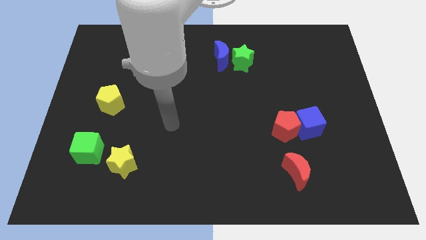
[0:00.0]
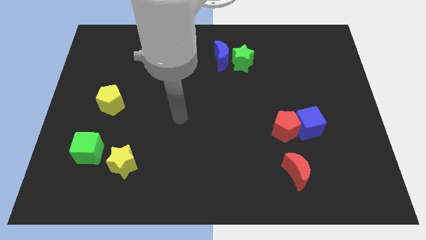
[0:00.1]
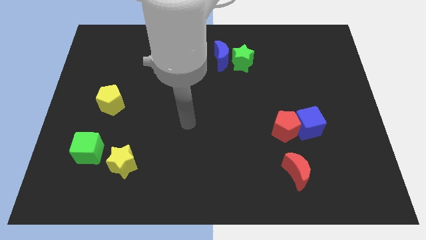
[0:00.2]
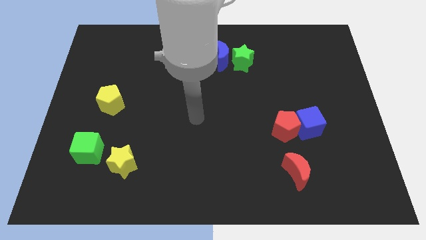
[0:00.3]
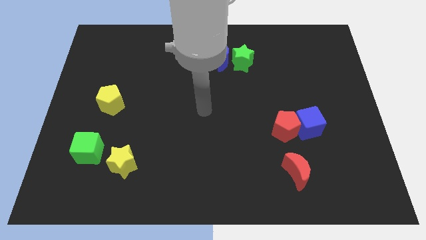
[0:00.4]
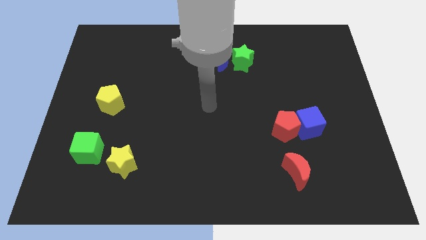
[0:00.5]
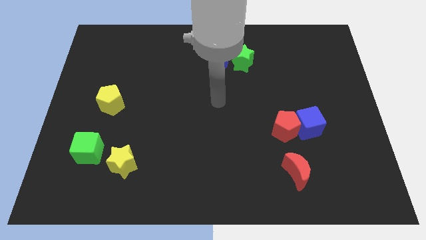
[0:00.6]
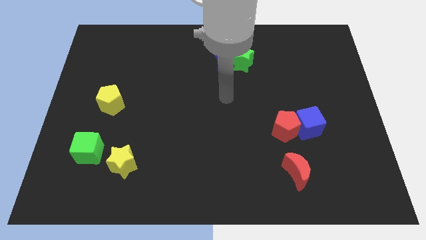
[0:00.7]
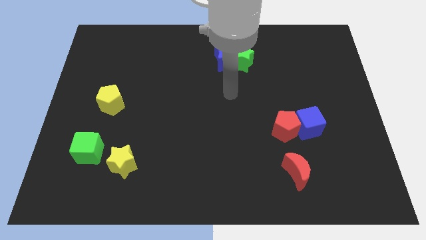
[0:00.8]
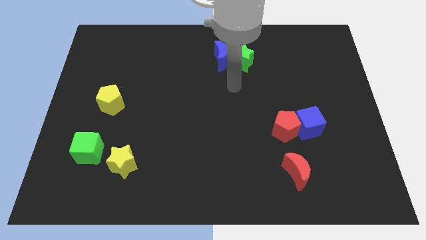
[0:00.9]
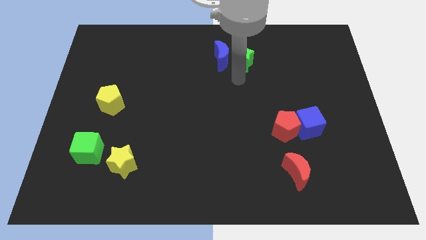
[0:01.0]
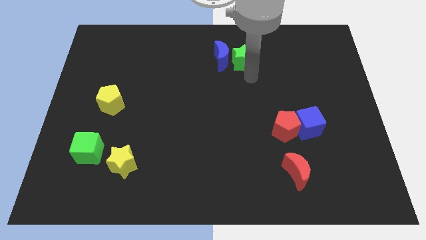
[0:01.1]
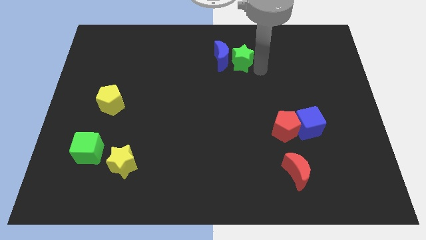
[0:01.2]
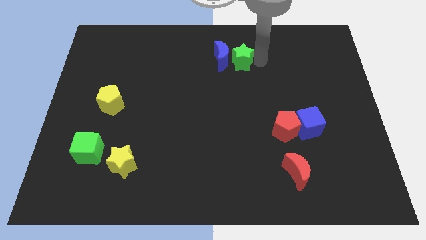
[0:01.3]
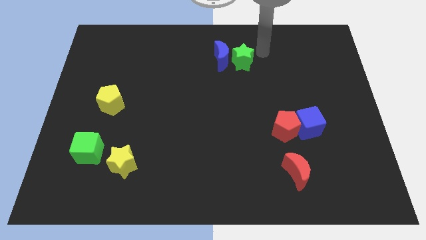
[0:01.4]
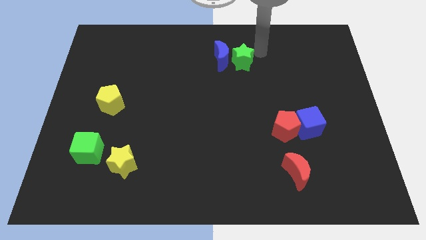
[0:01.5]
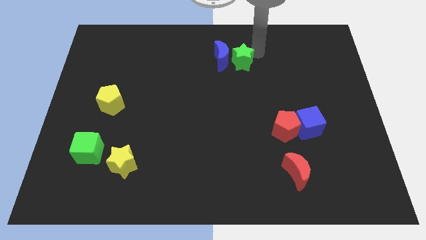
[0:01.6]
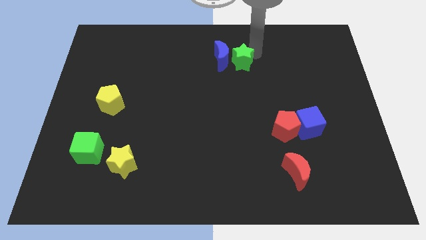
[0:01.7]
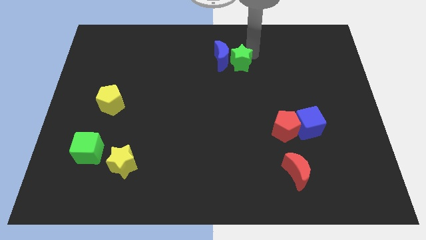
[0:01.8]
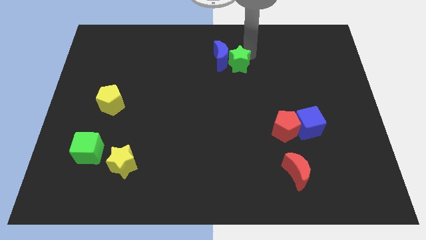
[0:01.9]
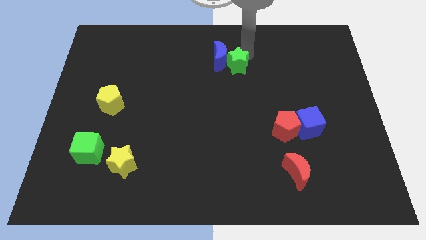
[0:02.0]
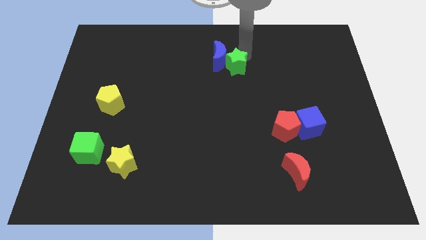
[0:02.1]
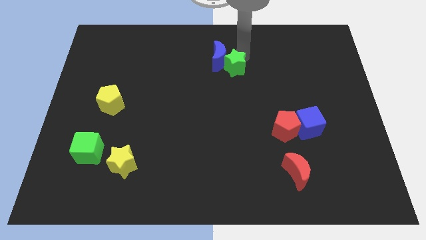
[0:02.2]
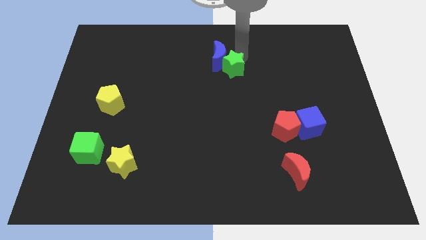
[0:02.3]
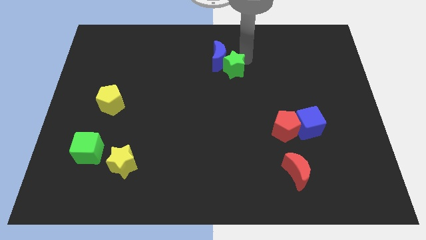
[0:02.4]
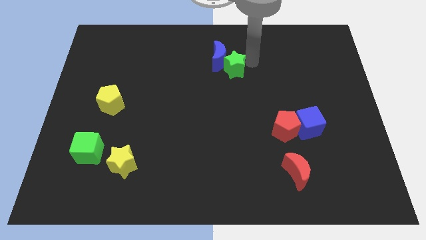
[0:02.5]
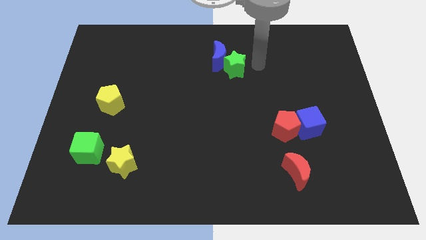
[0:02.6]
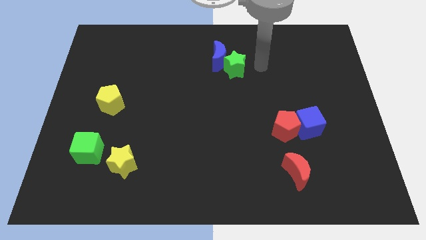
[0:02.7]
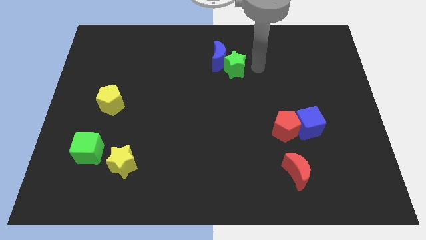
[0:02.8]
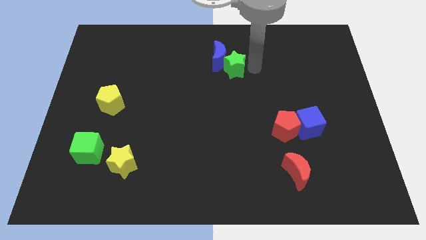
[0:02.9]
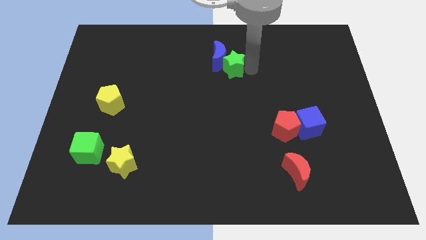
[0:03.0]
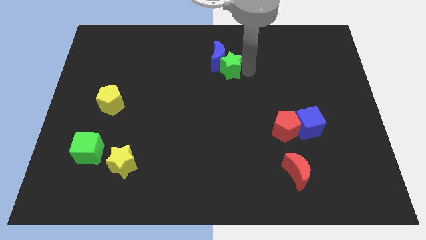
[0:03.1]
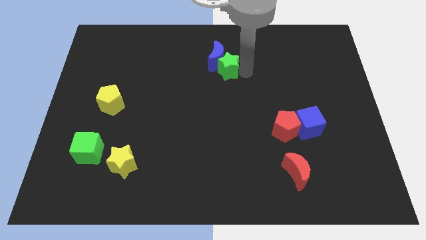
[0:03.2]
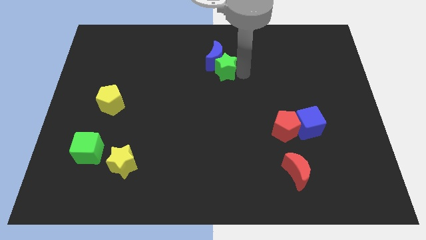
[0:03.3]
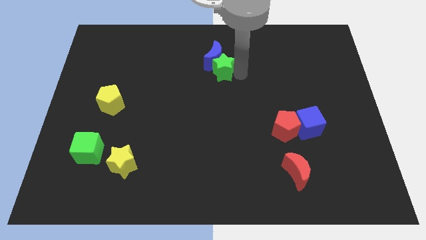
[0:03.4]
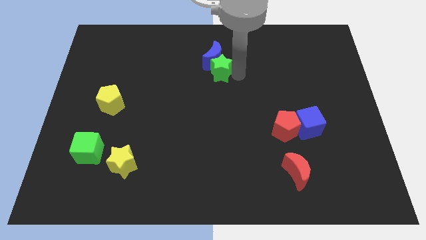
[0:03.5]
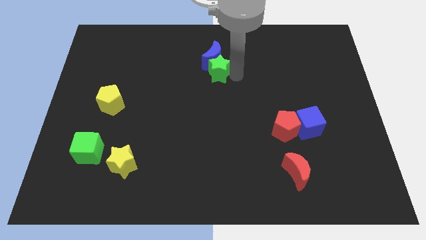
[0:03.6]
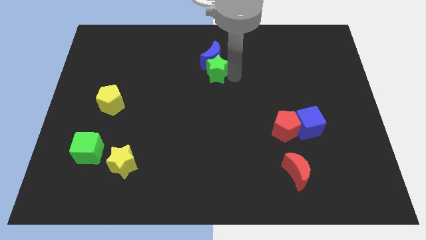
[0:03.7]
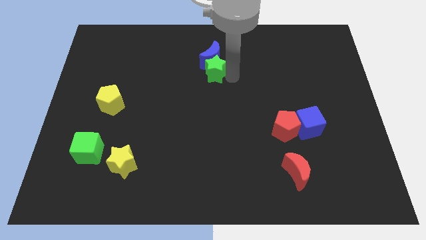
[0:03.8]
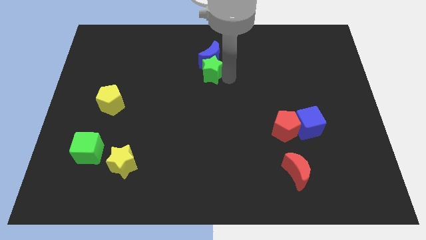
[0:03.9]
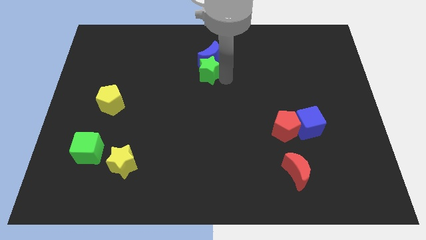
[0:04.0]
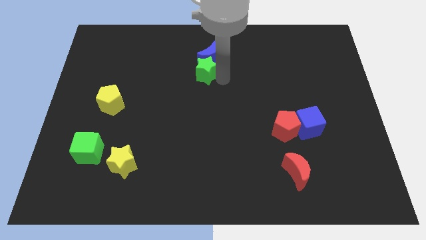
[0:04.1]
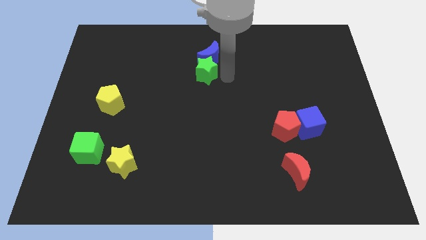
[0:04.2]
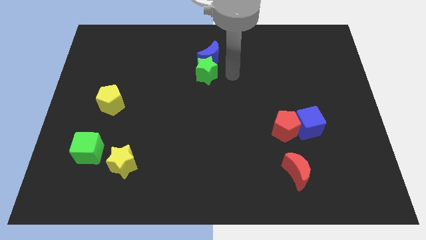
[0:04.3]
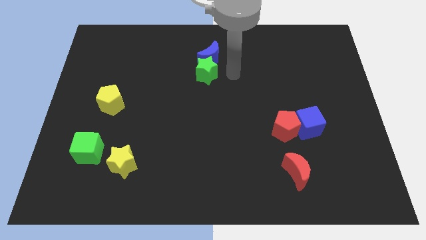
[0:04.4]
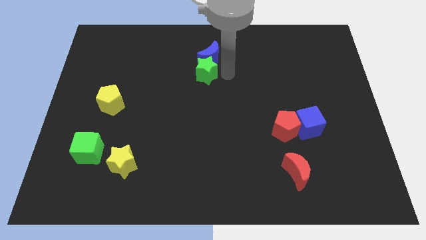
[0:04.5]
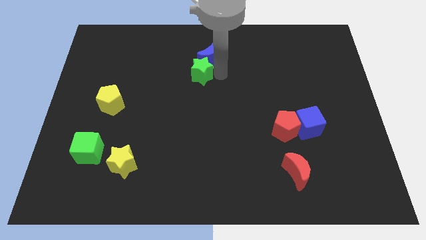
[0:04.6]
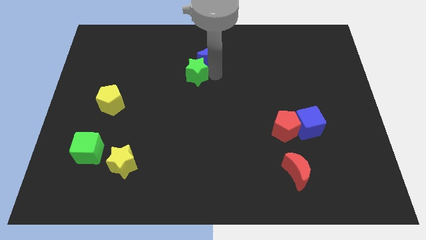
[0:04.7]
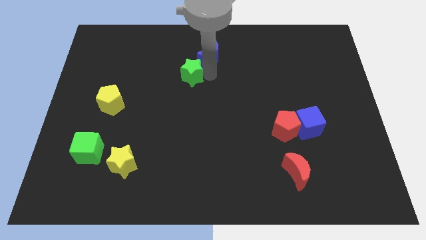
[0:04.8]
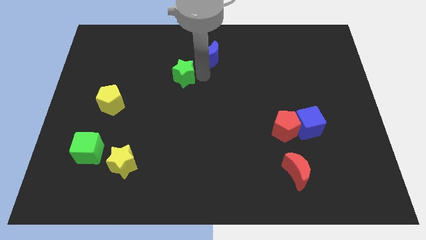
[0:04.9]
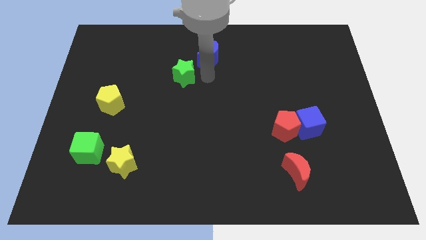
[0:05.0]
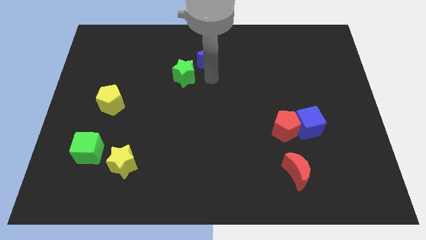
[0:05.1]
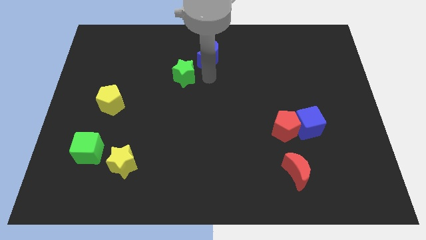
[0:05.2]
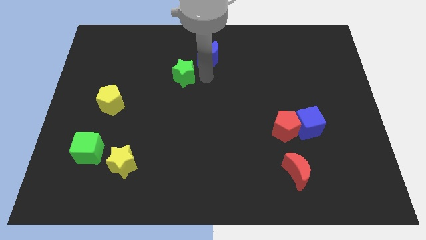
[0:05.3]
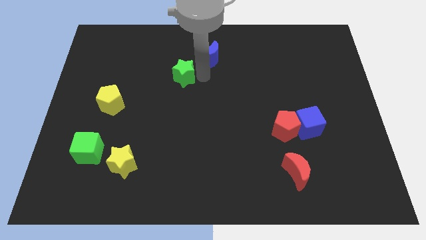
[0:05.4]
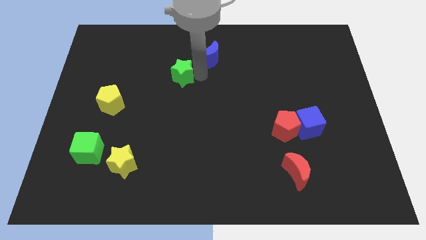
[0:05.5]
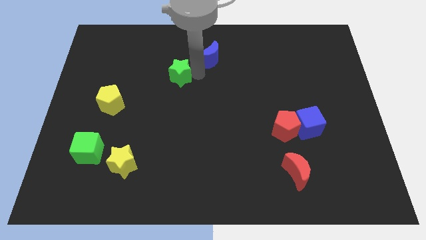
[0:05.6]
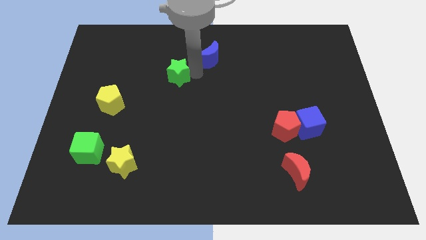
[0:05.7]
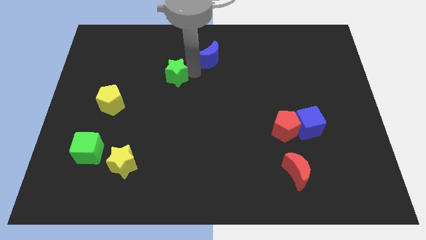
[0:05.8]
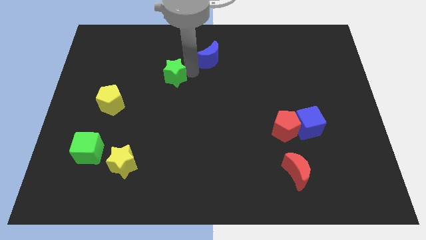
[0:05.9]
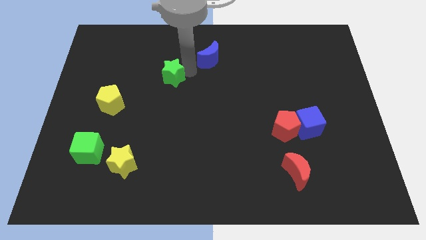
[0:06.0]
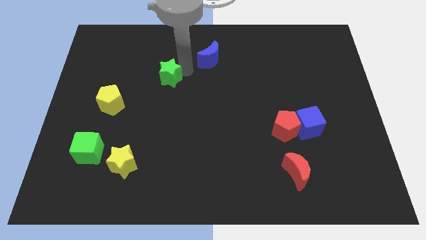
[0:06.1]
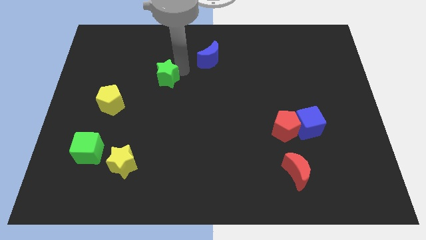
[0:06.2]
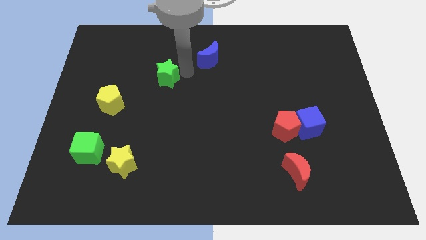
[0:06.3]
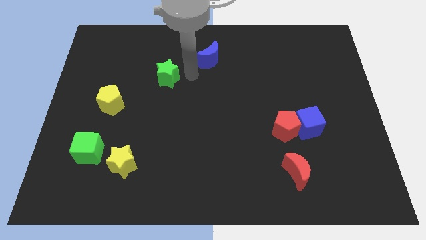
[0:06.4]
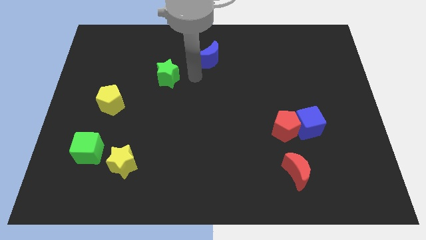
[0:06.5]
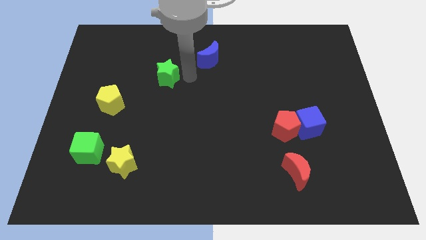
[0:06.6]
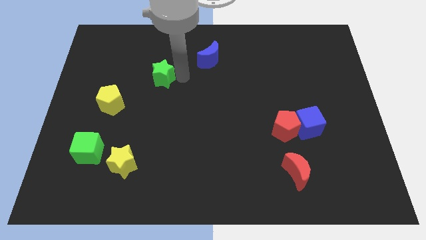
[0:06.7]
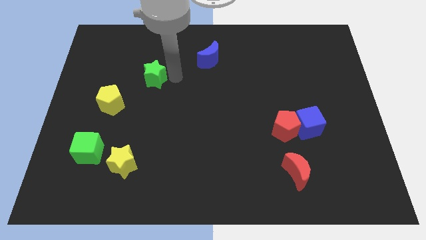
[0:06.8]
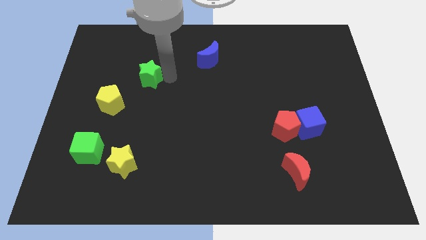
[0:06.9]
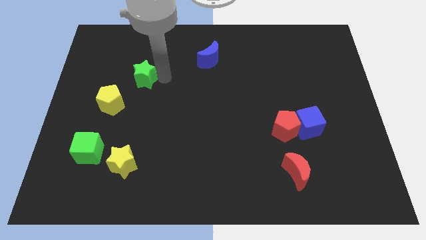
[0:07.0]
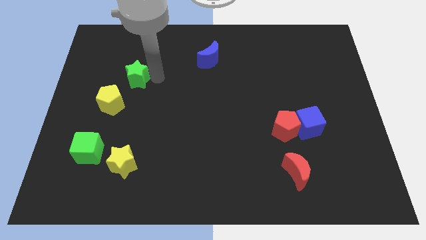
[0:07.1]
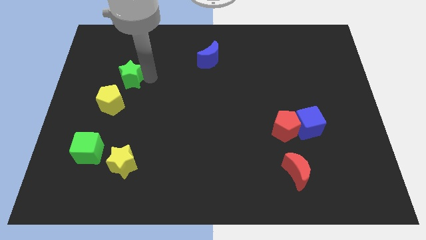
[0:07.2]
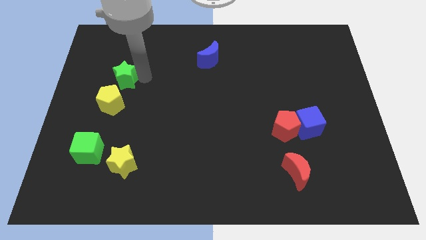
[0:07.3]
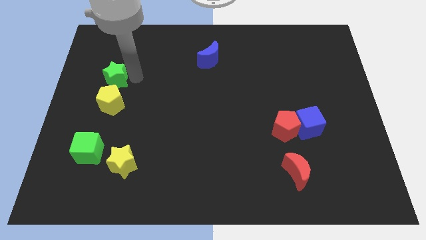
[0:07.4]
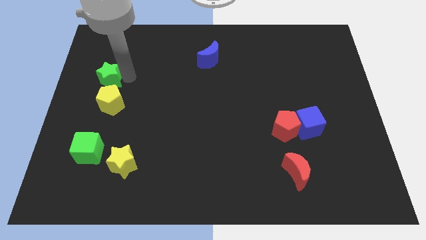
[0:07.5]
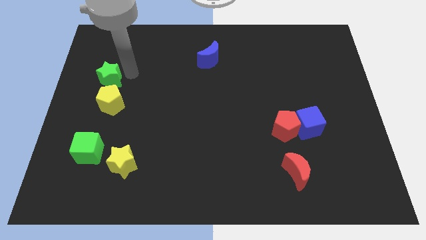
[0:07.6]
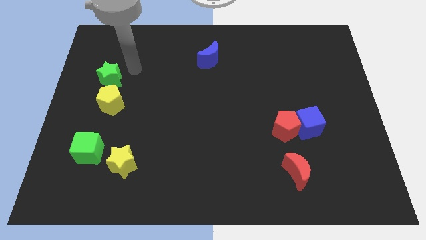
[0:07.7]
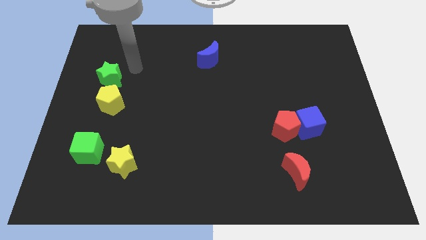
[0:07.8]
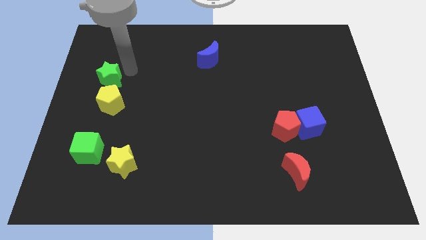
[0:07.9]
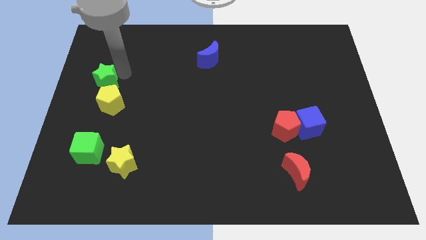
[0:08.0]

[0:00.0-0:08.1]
slide the green star to the center left
